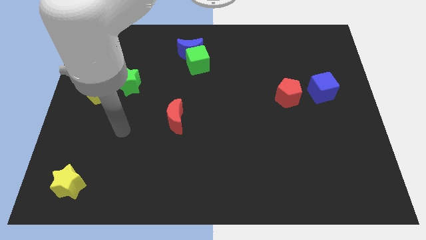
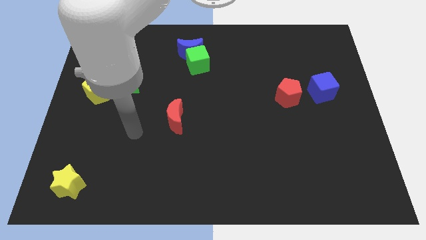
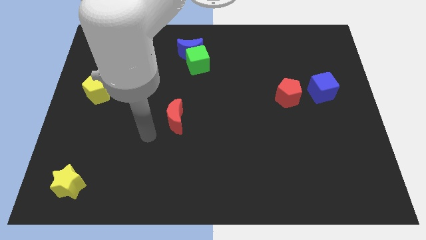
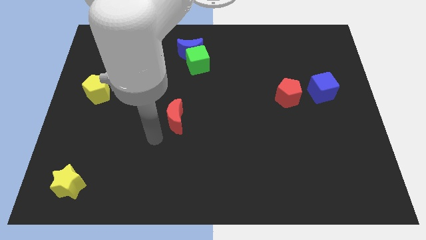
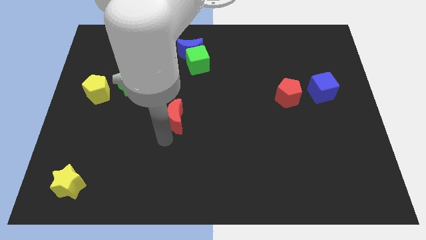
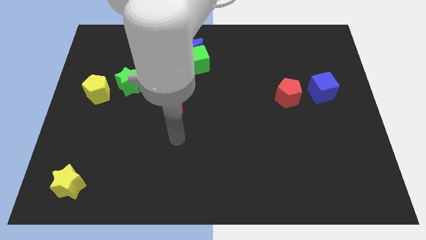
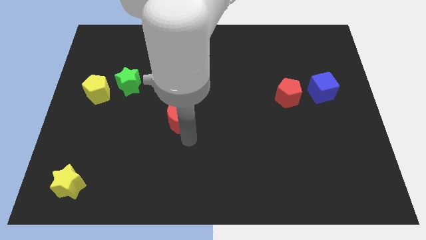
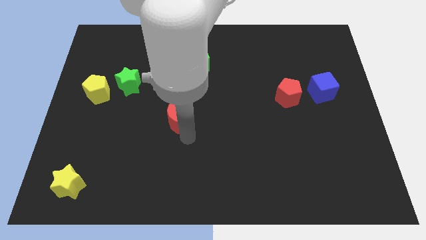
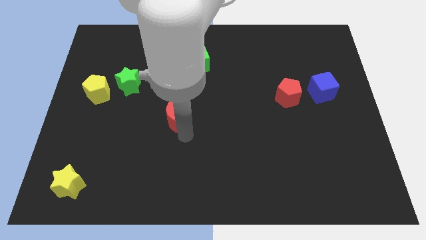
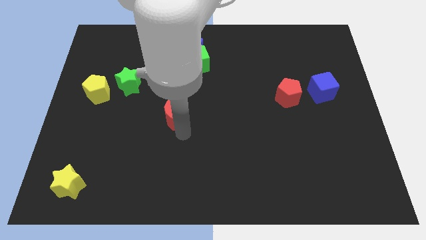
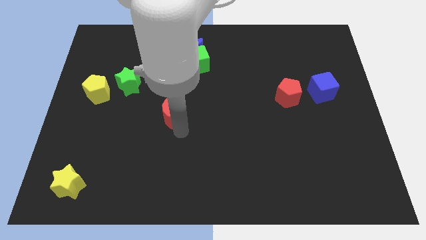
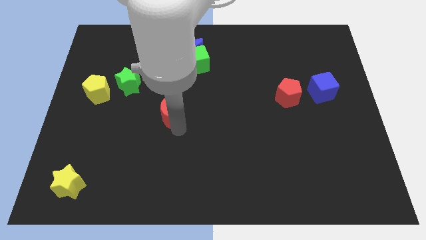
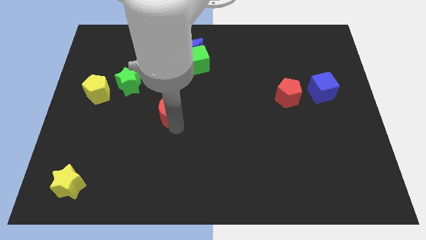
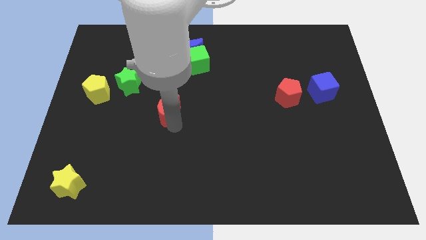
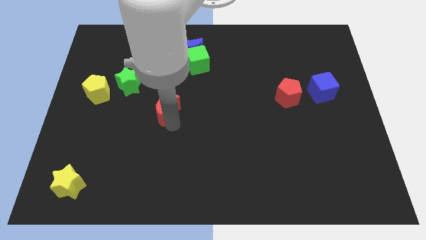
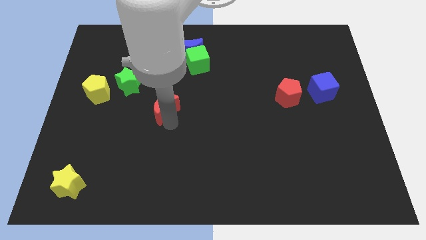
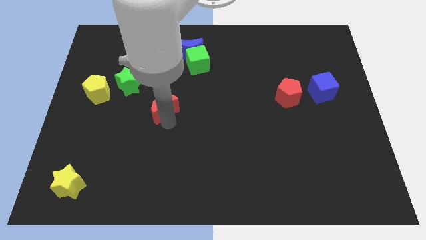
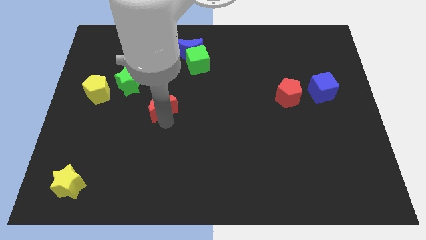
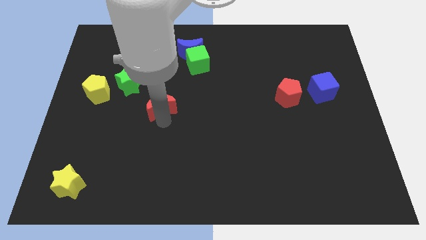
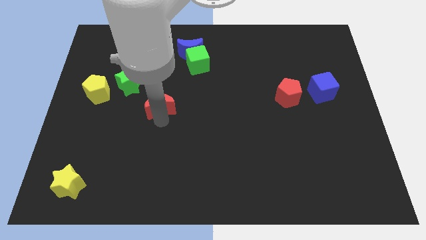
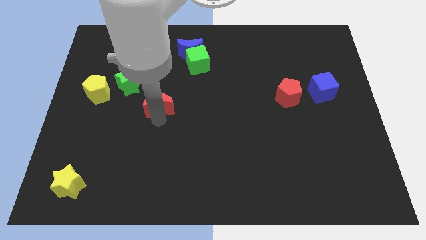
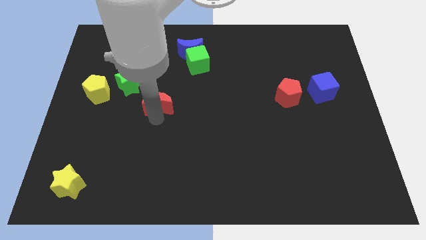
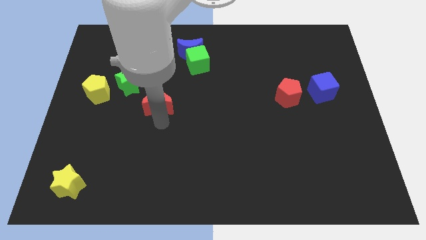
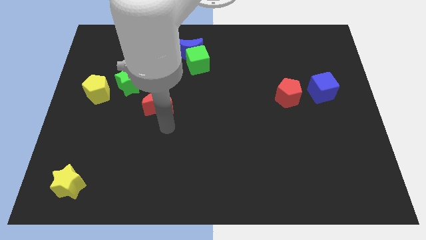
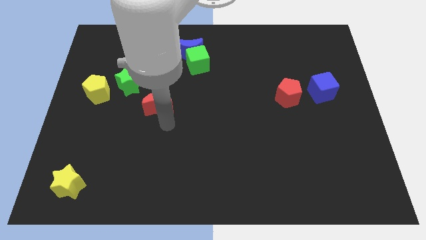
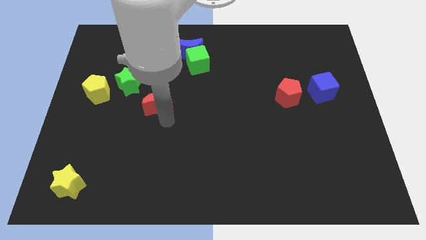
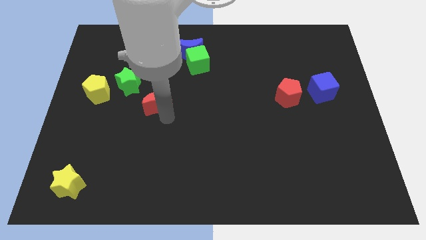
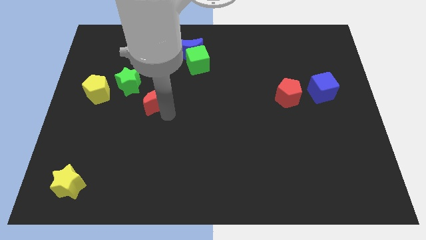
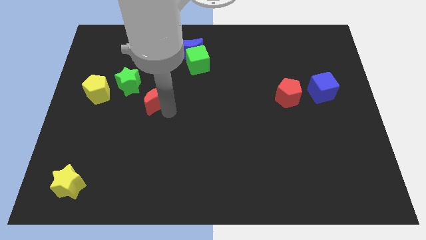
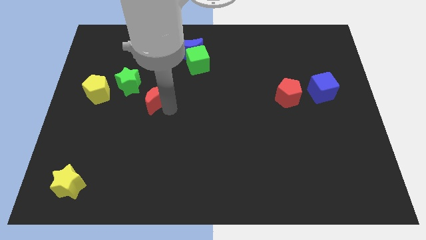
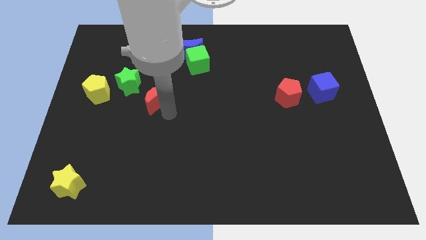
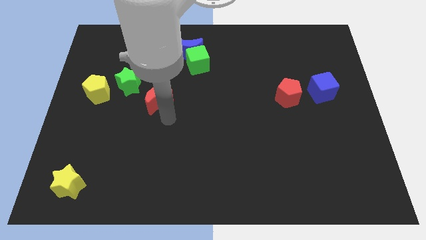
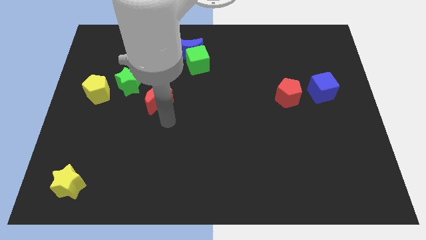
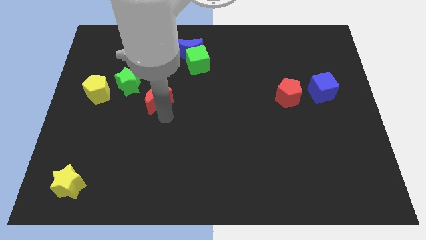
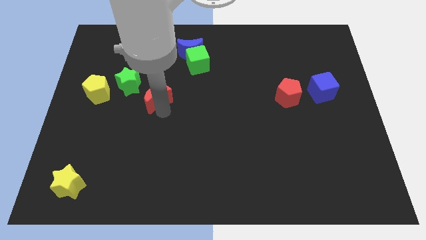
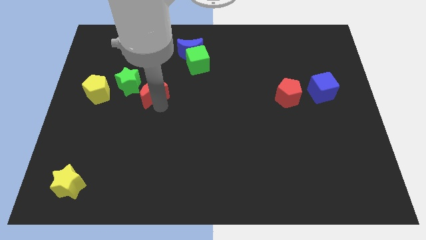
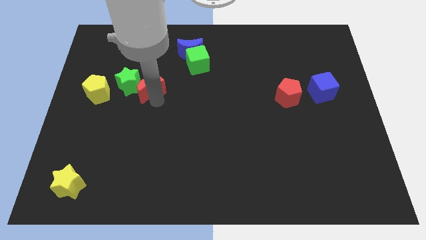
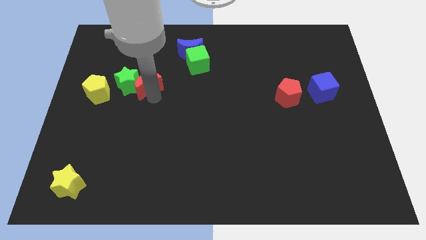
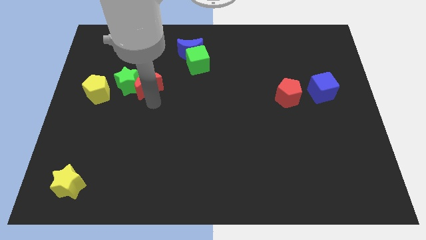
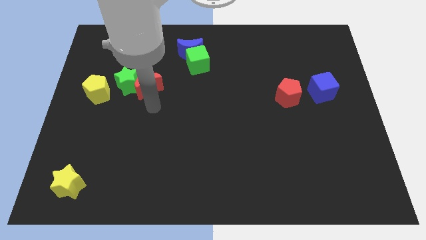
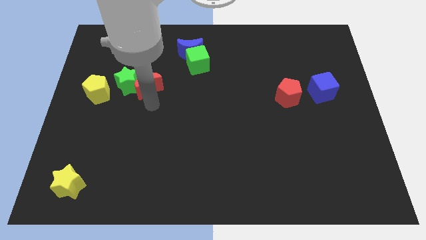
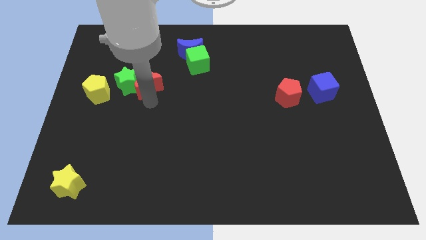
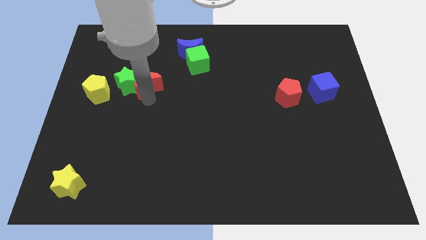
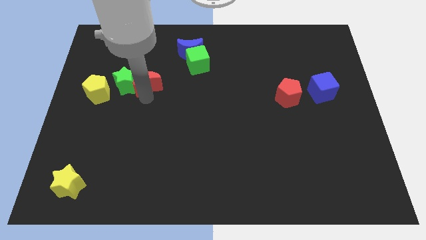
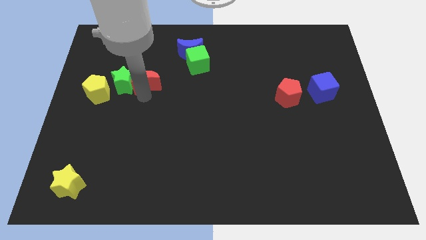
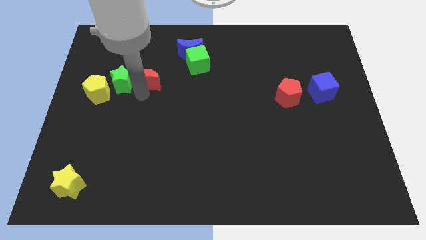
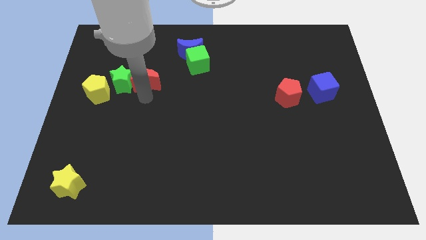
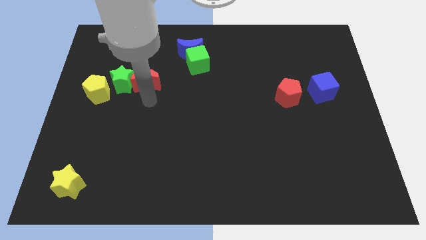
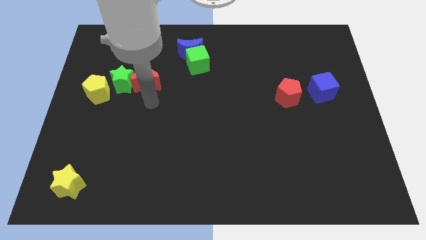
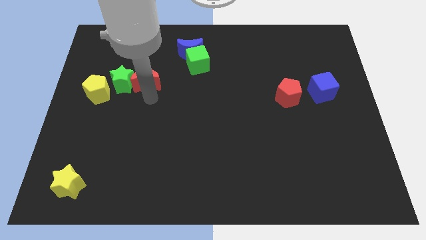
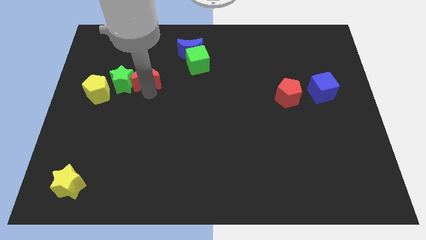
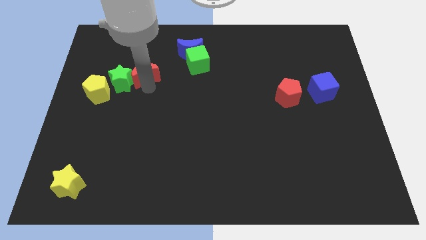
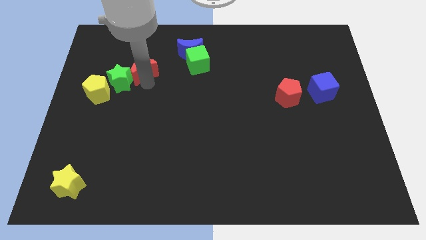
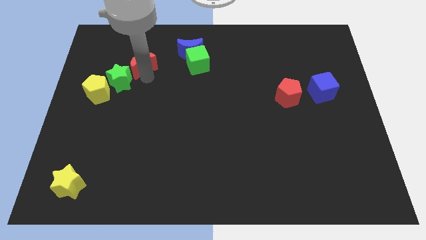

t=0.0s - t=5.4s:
put the red moon to the top side of the green star

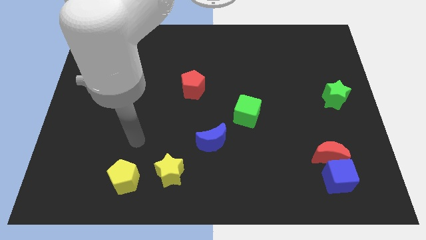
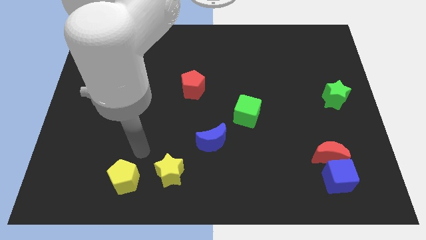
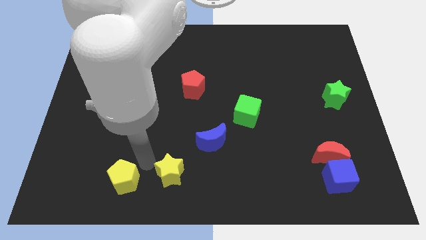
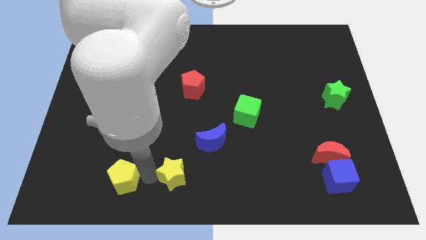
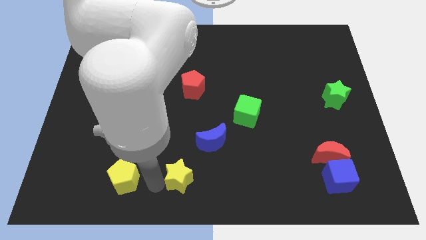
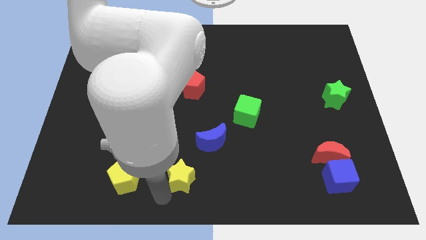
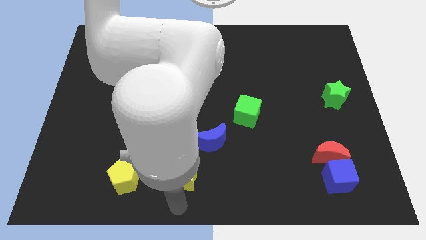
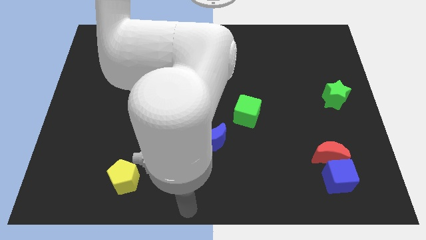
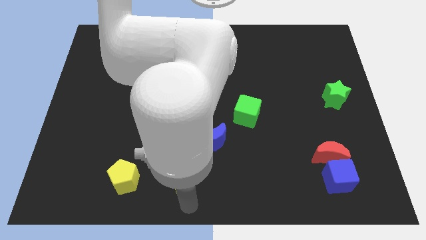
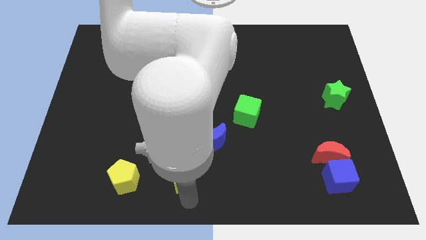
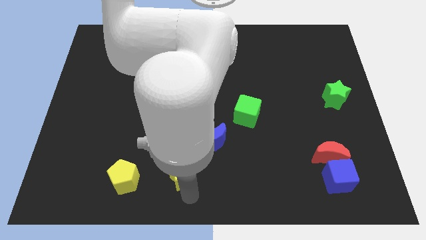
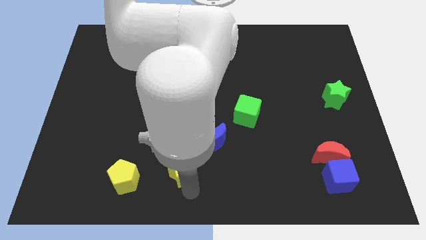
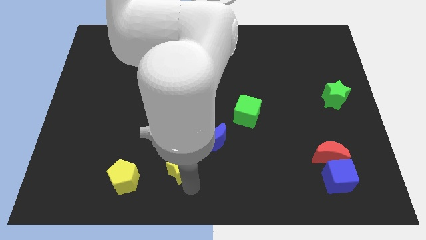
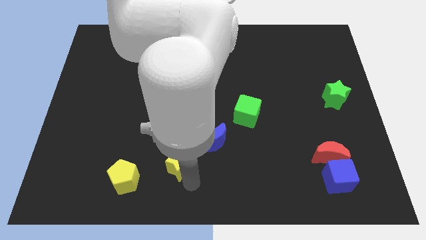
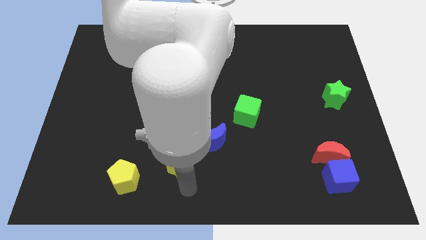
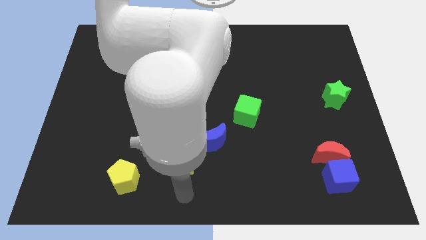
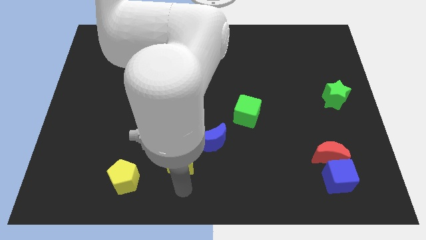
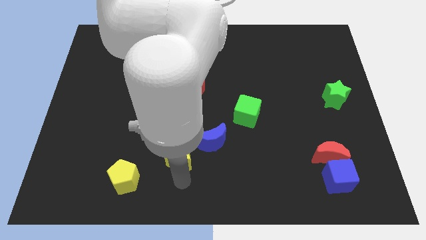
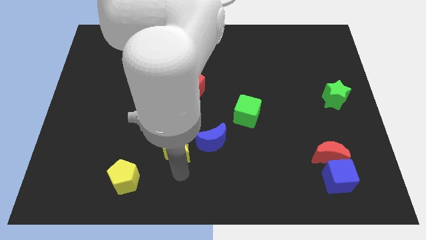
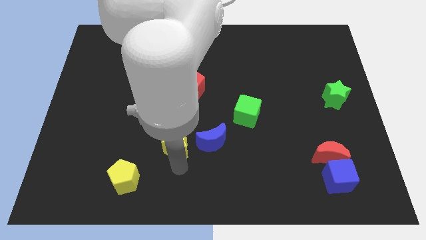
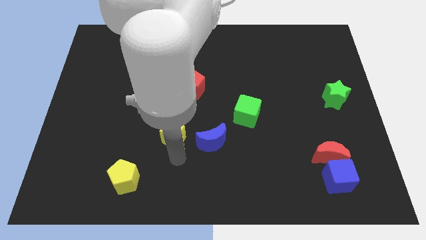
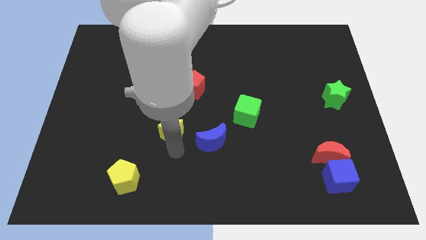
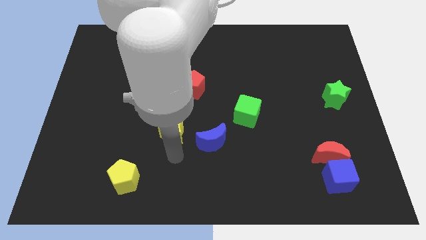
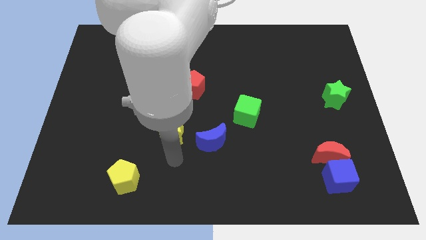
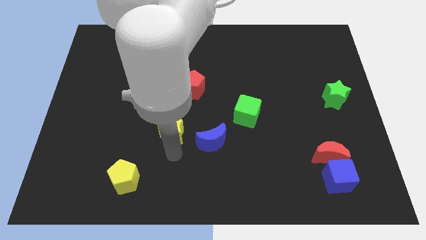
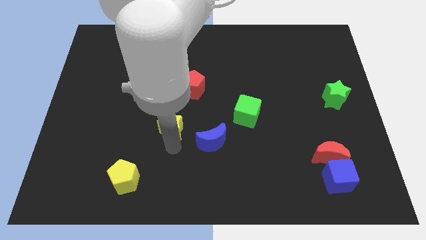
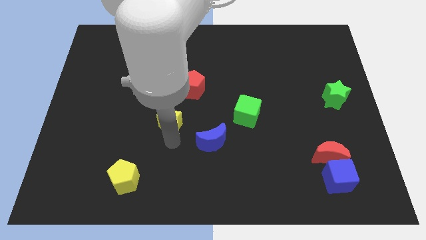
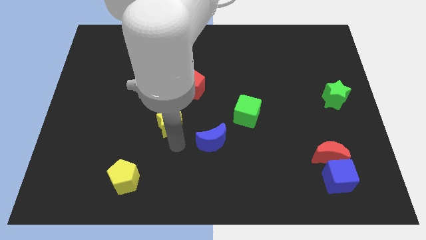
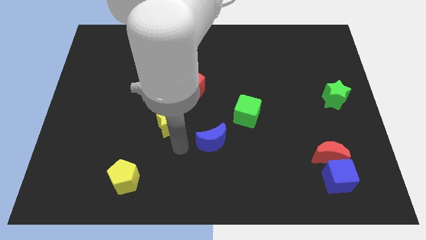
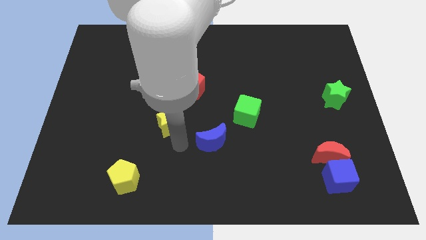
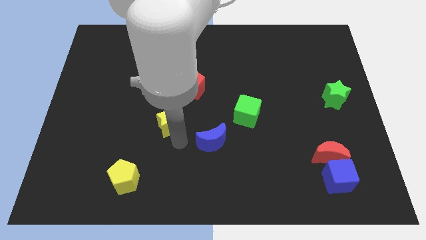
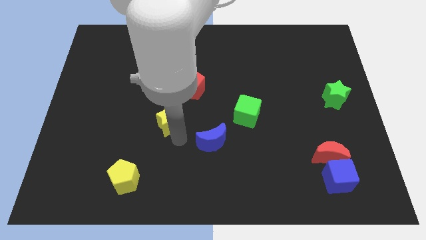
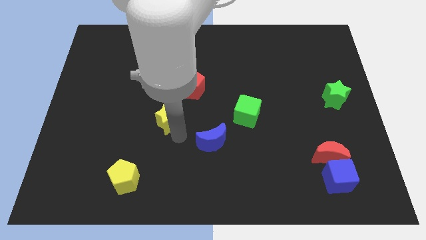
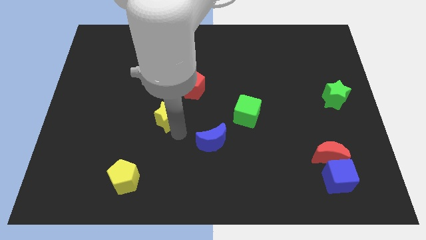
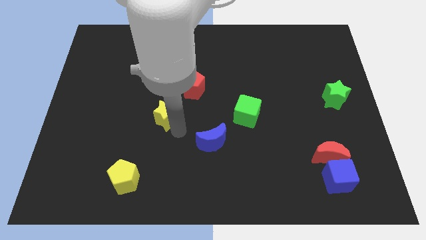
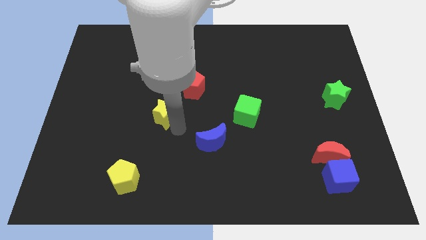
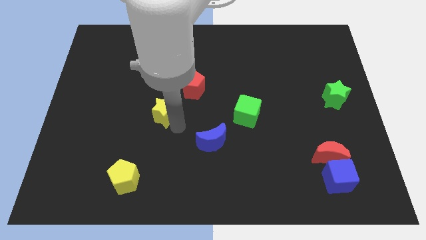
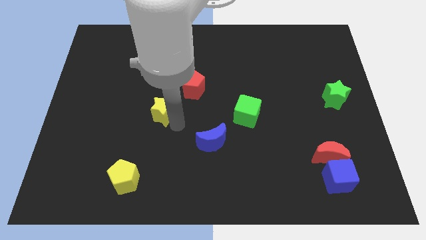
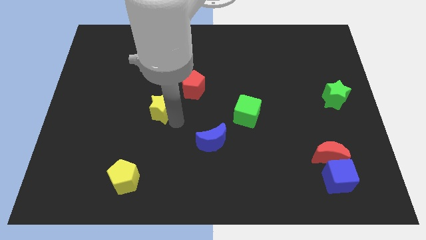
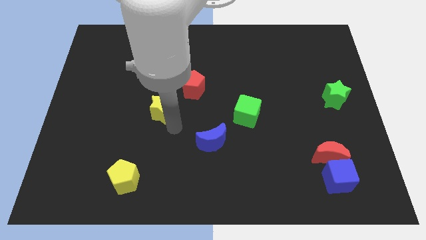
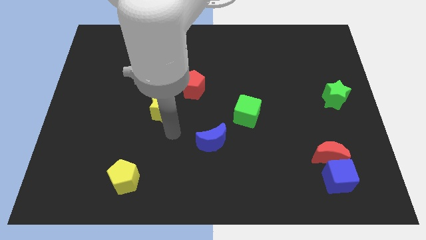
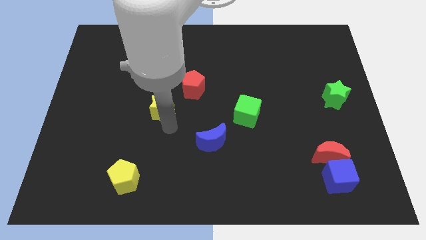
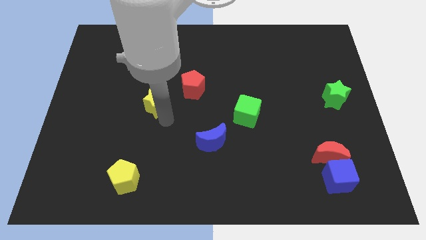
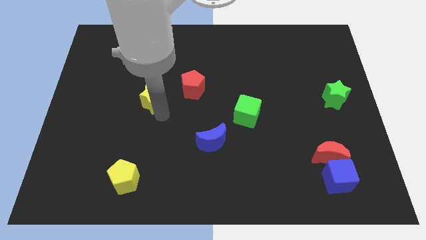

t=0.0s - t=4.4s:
push the yellow star to the left side of the red pentagon
